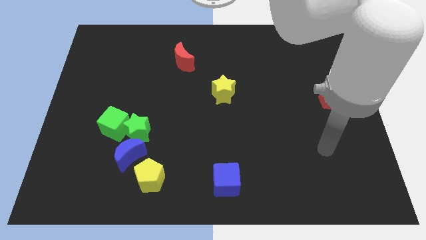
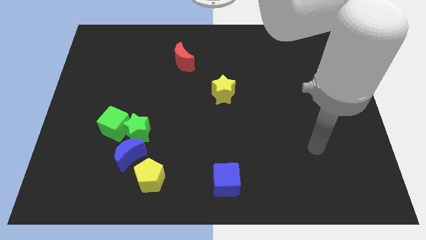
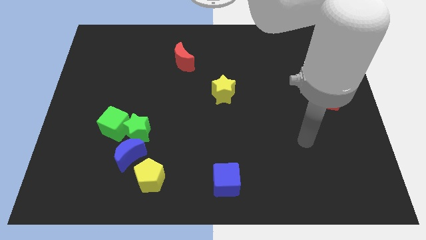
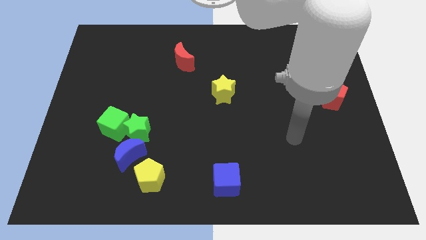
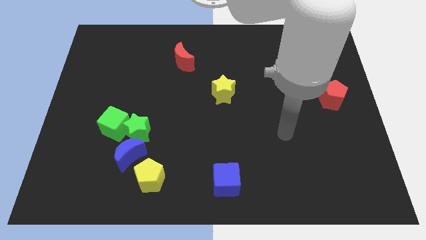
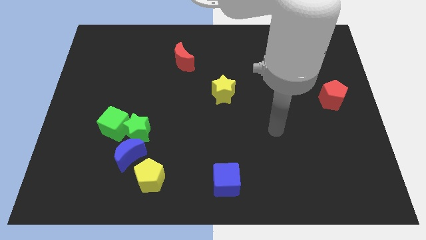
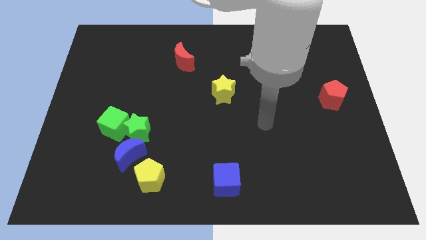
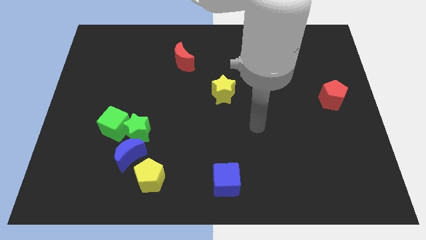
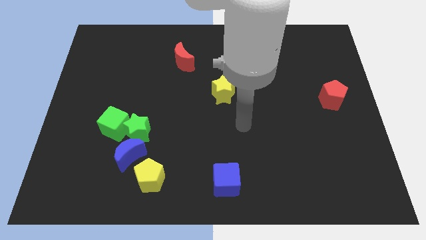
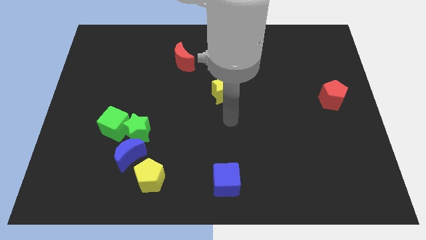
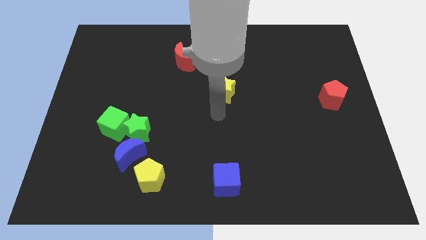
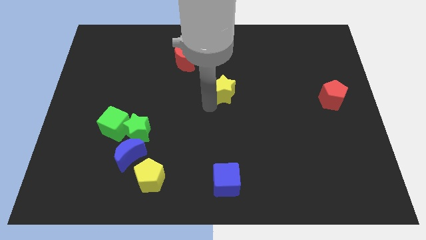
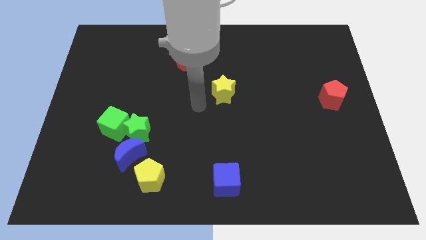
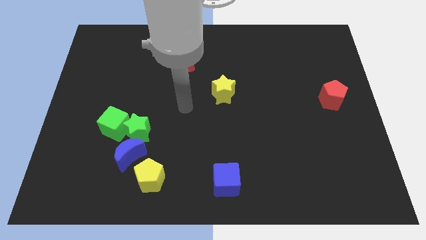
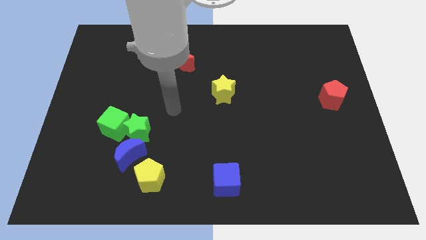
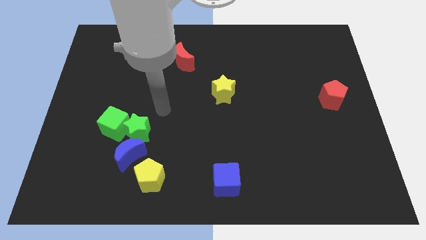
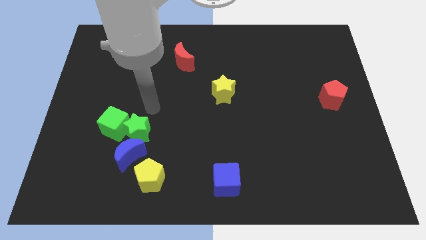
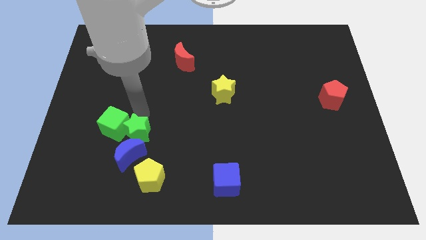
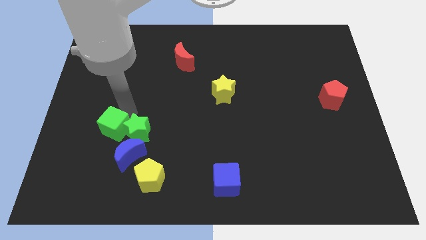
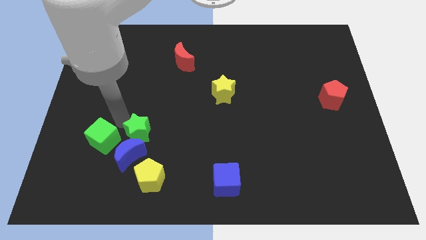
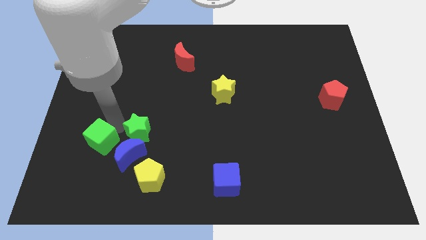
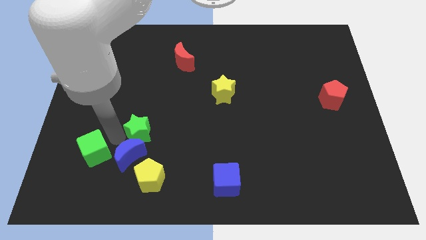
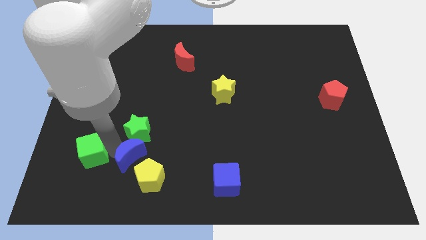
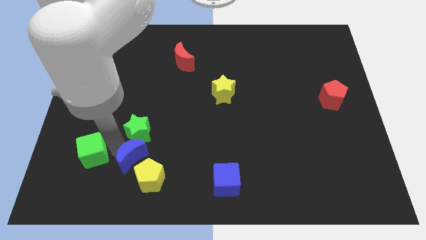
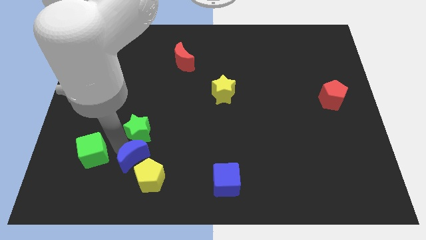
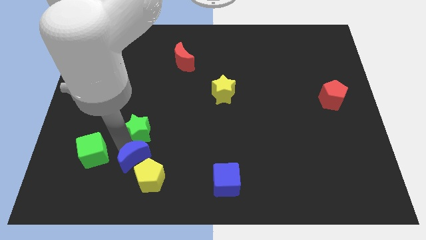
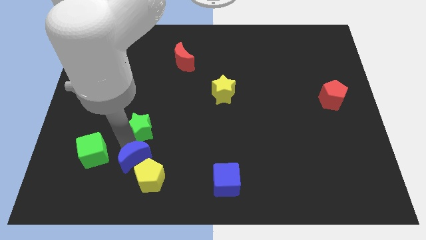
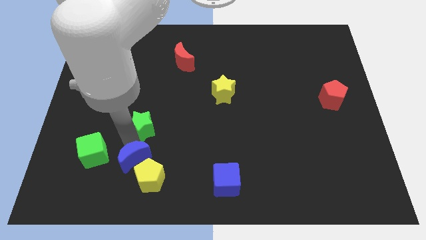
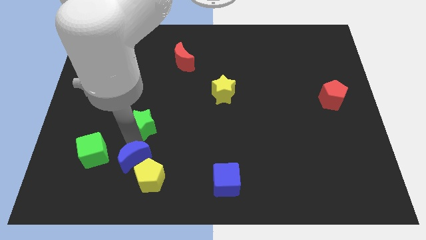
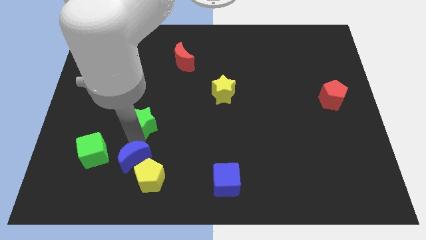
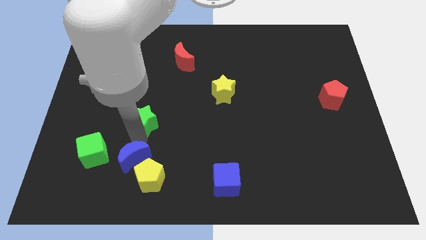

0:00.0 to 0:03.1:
pull the green star apart from the green cube and blue moon

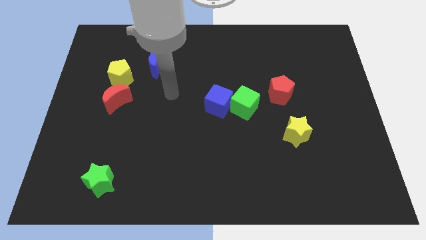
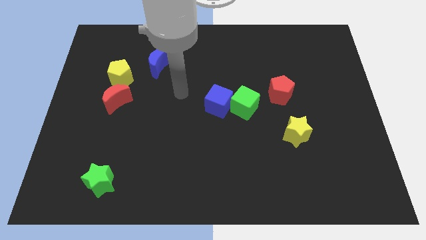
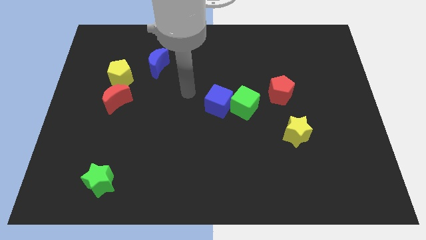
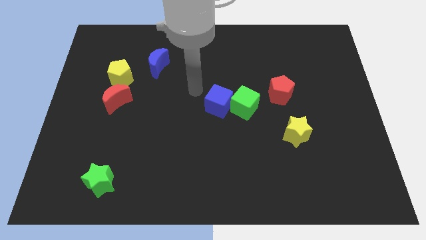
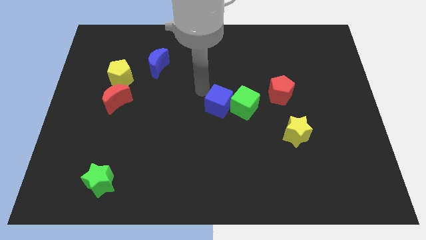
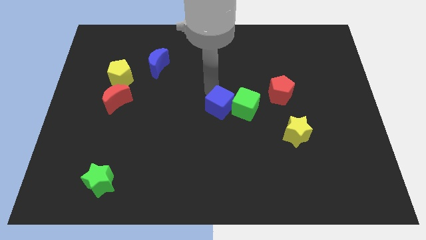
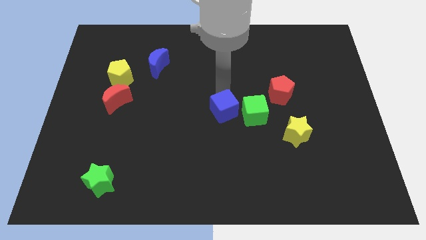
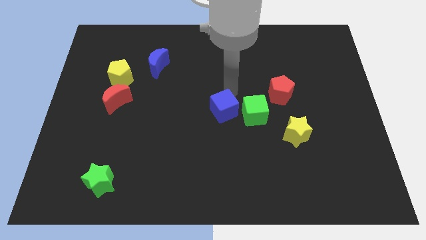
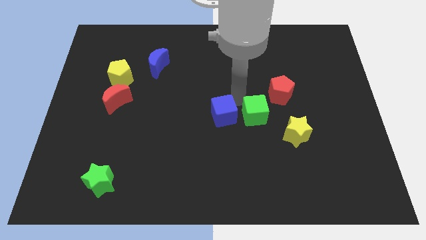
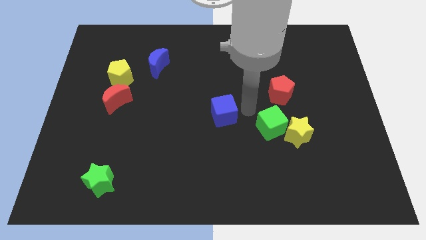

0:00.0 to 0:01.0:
pull the blue cube apart from the green cube

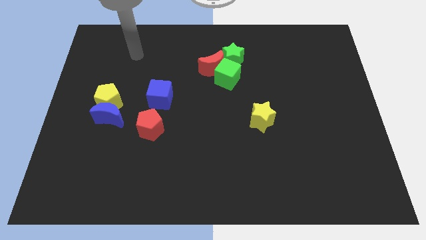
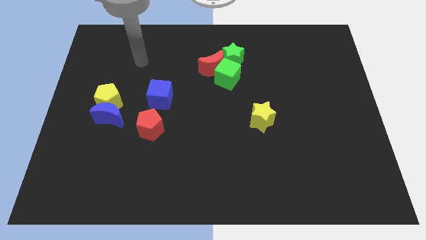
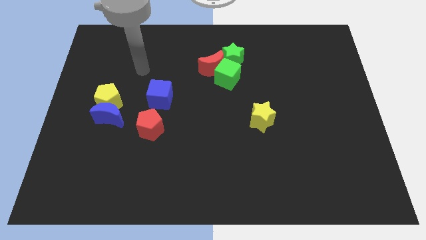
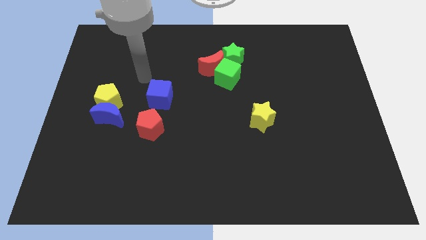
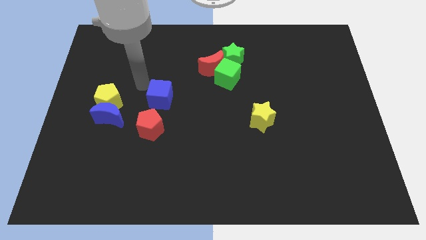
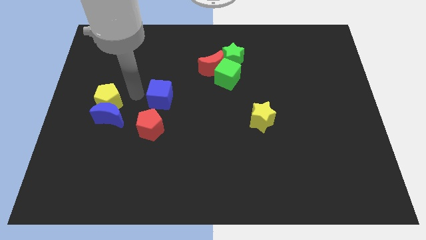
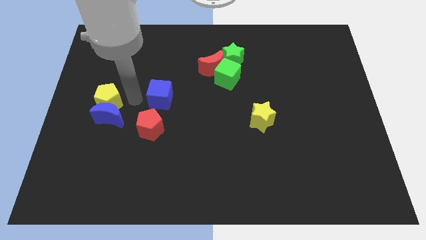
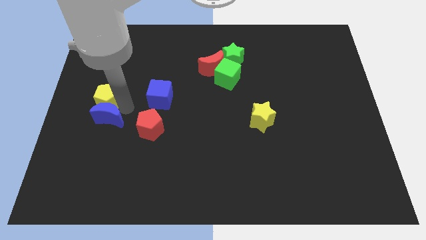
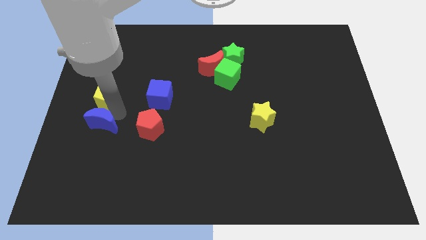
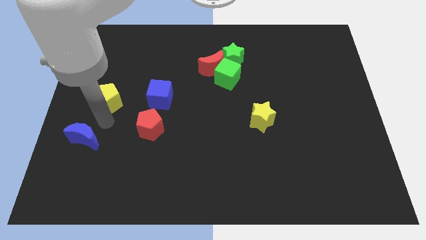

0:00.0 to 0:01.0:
move the yellow pentagon away from the blue moon

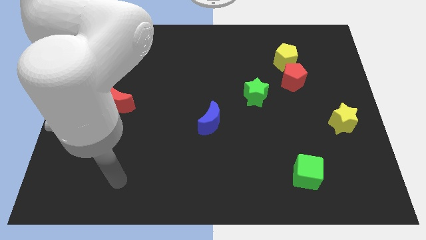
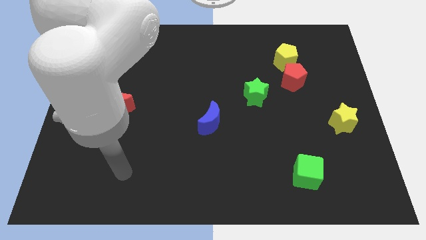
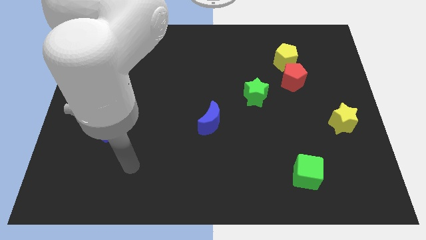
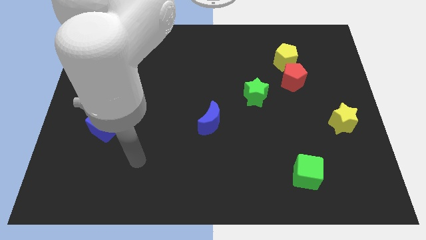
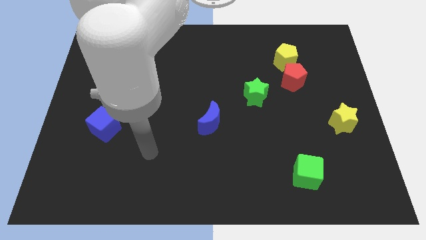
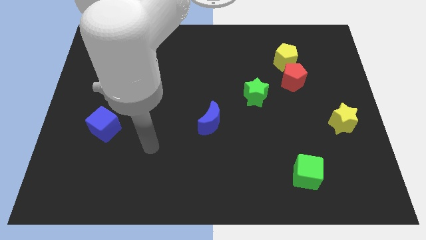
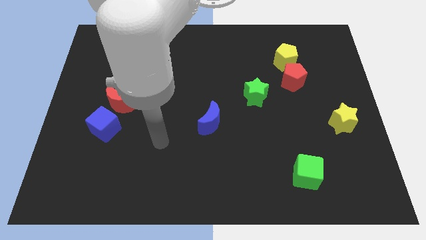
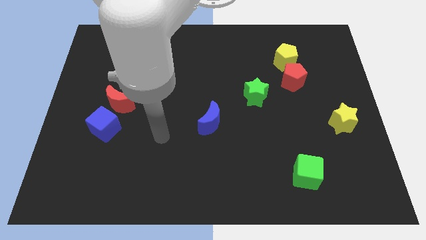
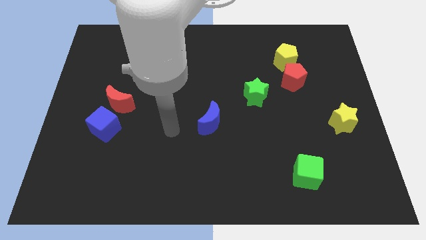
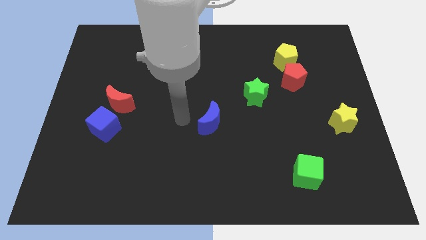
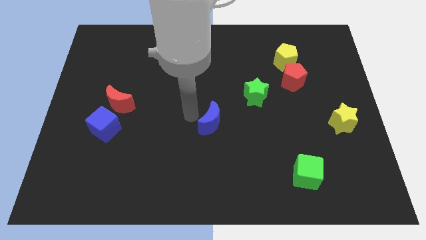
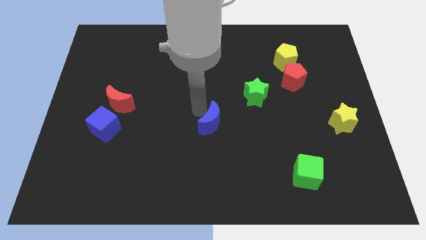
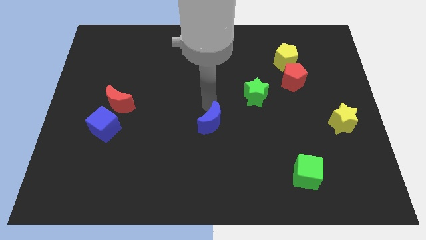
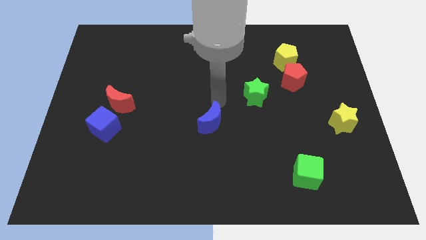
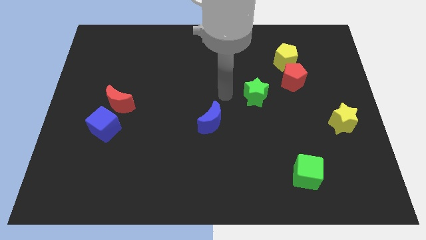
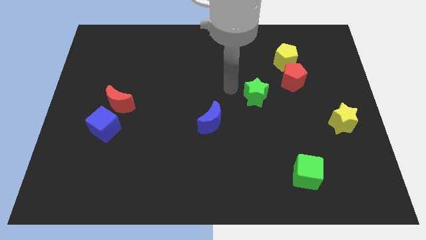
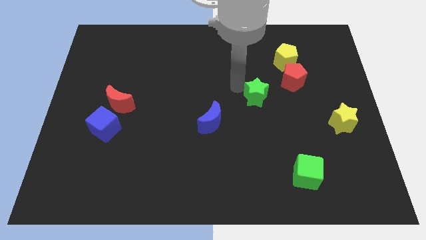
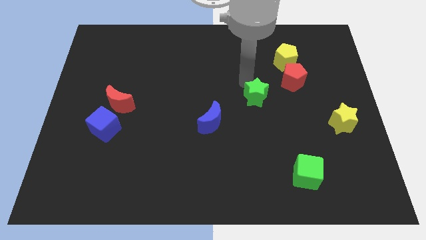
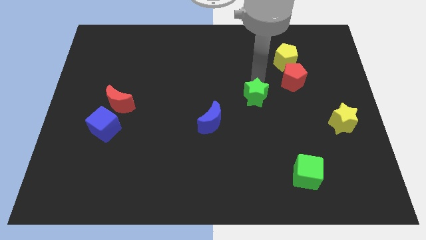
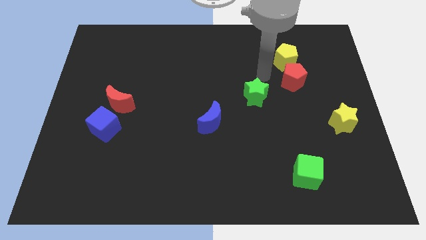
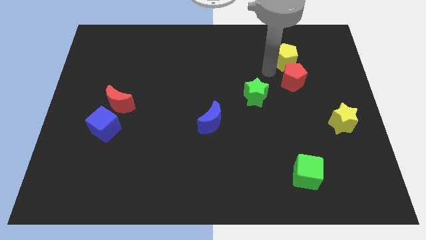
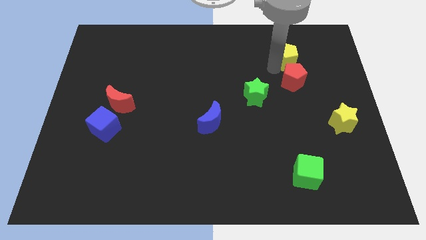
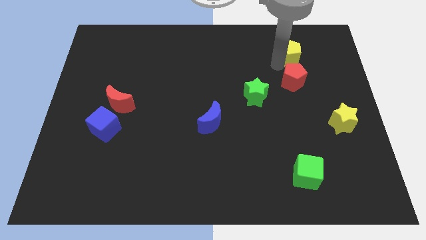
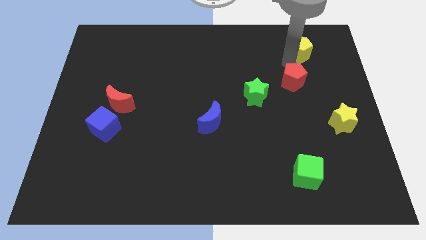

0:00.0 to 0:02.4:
pull the red pentagon apart from the yellow pentagon

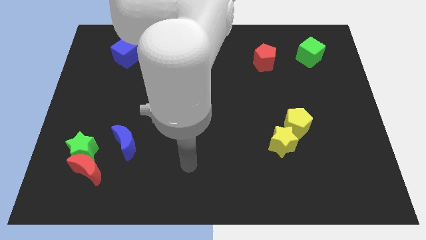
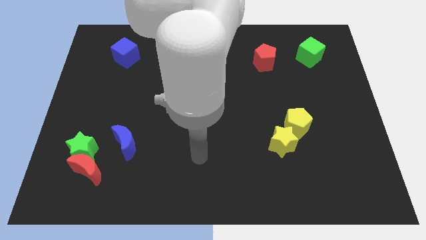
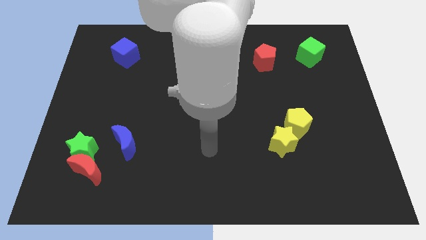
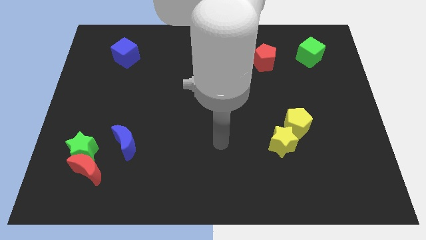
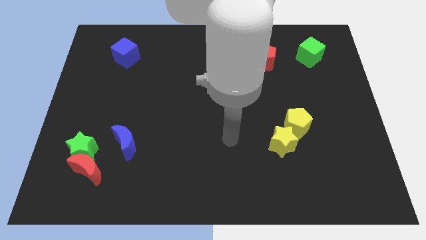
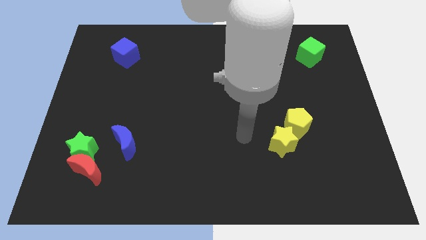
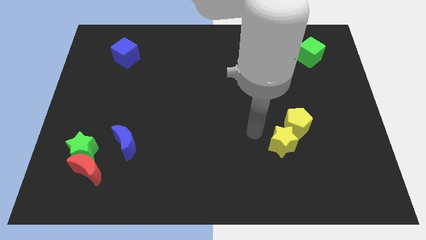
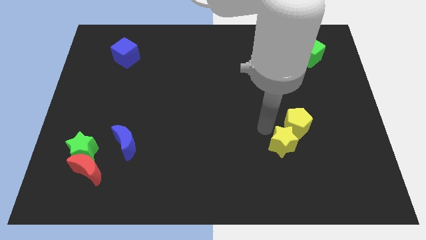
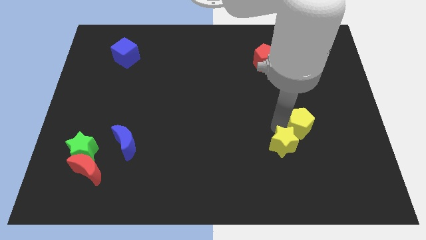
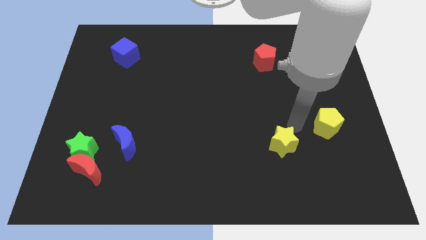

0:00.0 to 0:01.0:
move the yellow star away from the yellow pentagon

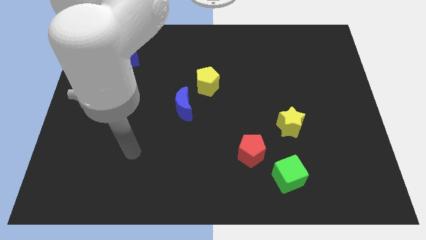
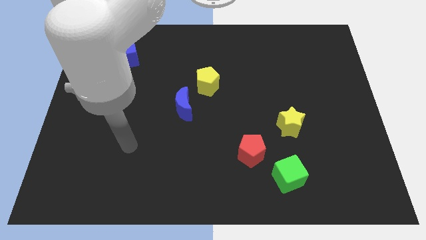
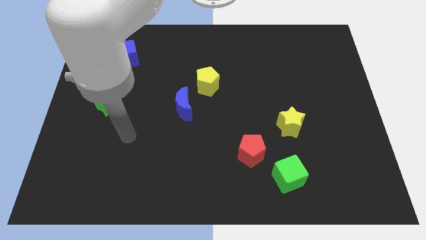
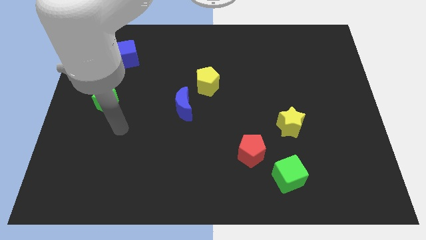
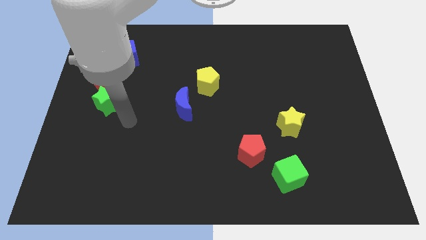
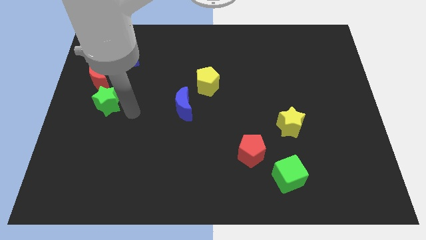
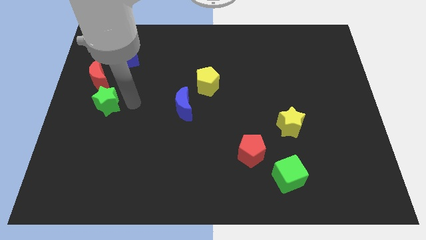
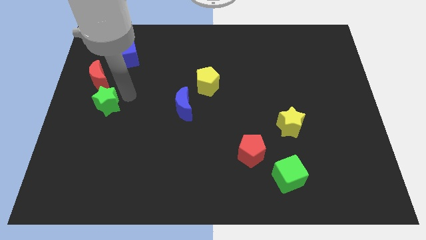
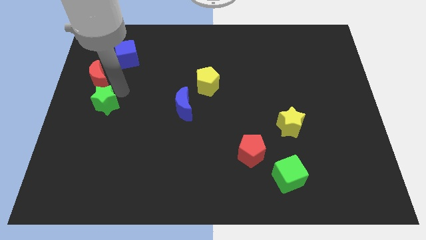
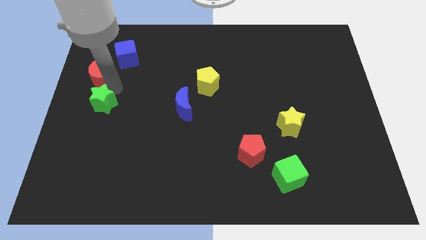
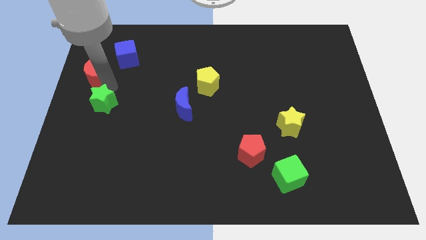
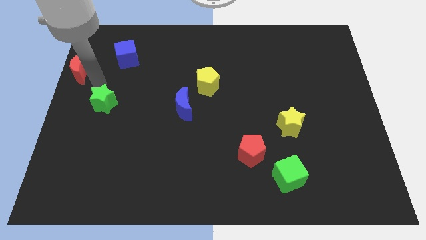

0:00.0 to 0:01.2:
move the green star away from the red moon
